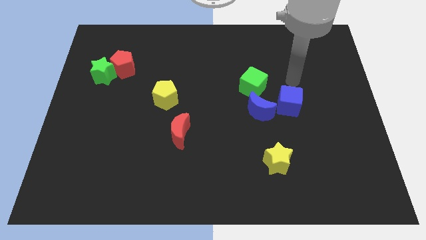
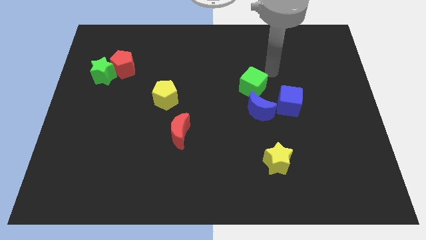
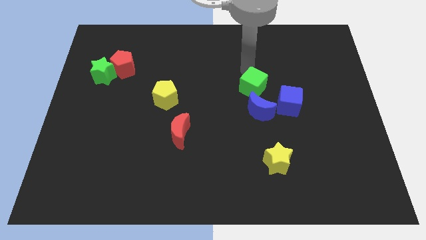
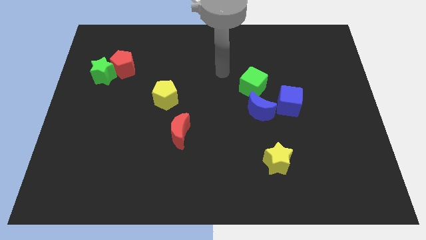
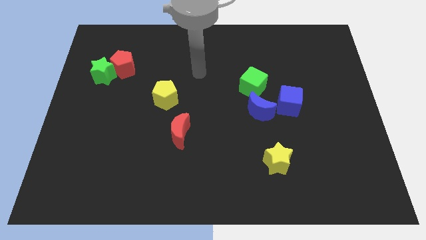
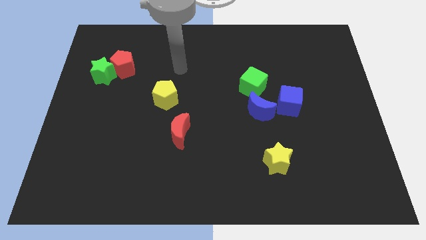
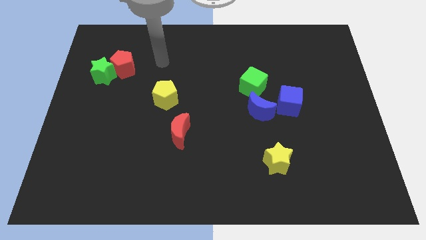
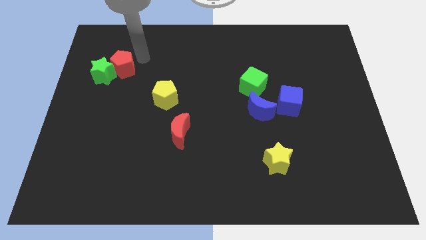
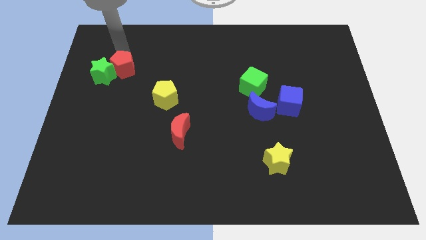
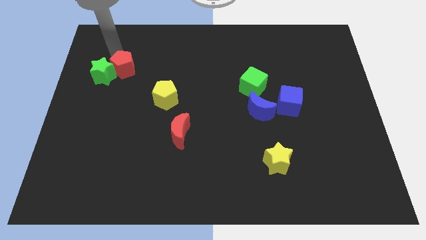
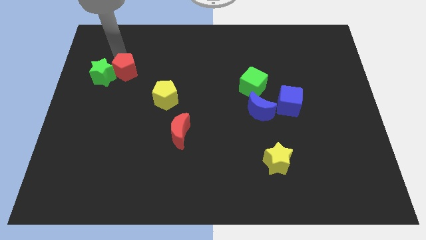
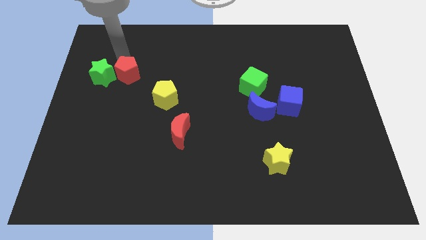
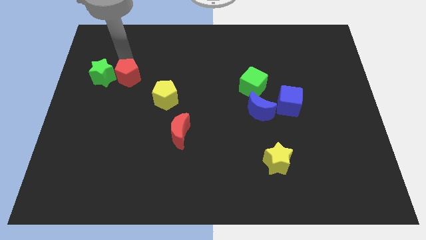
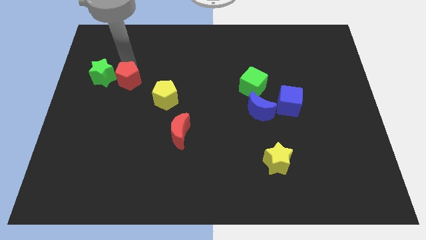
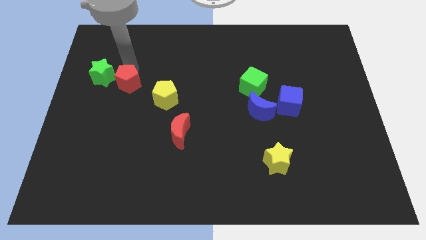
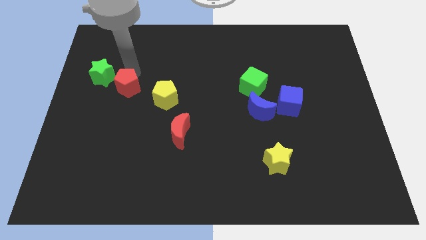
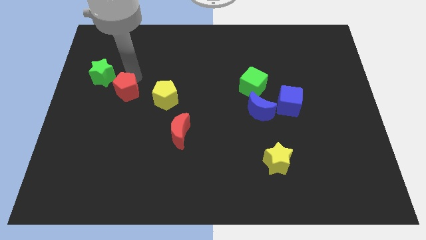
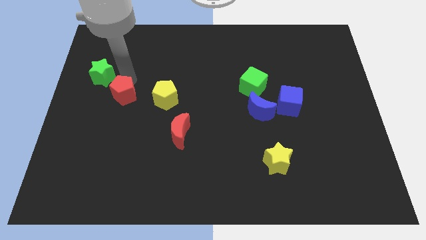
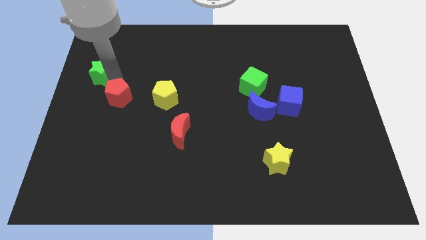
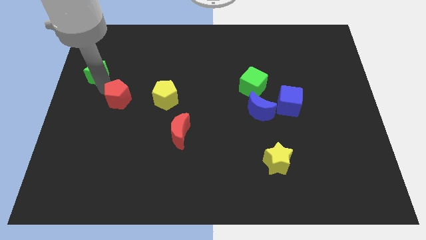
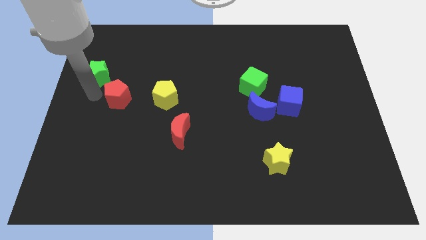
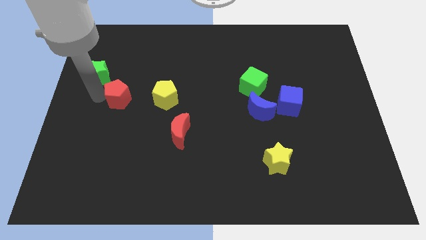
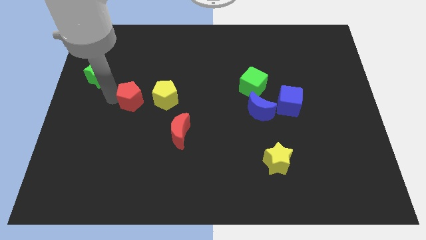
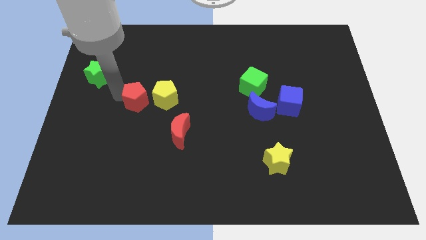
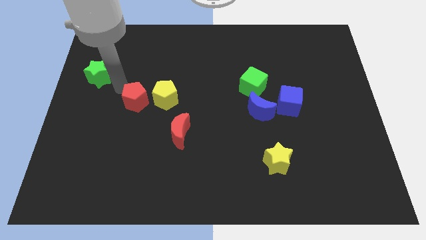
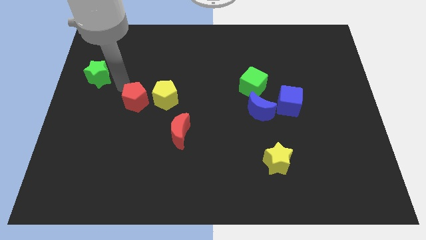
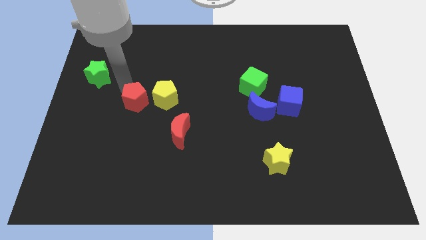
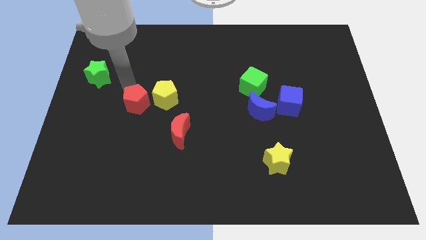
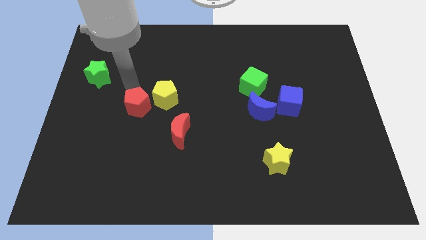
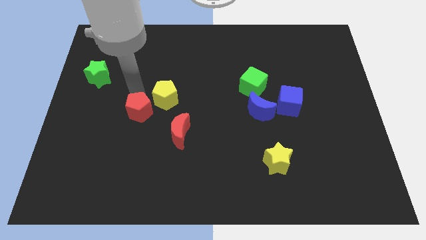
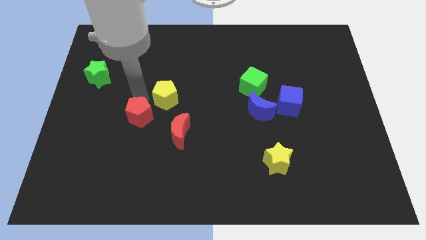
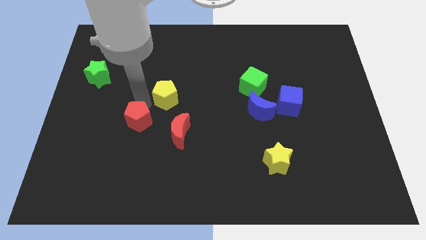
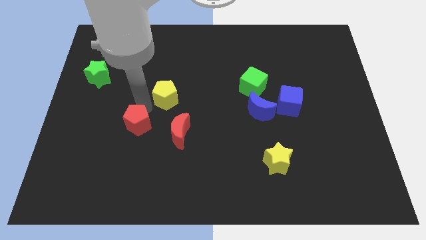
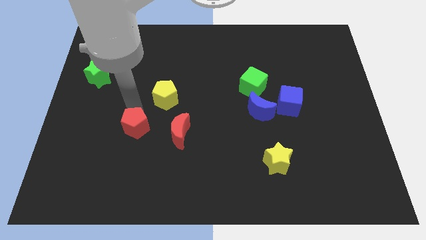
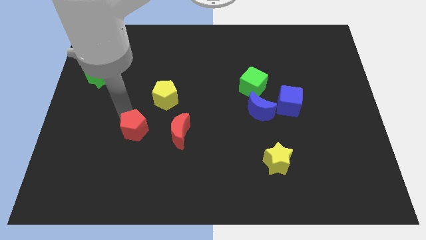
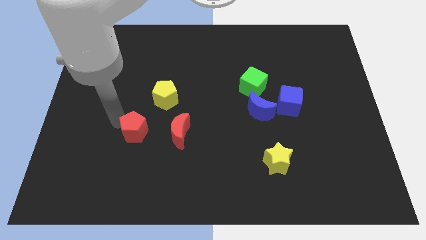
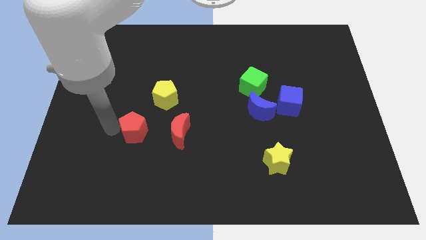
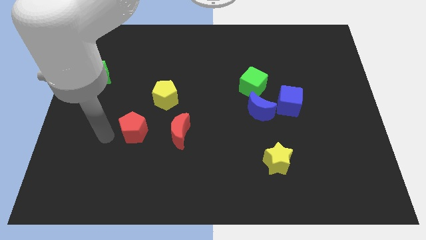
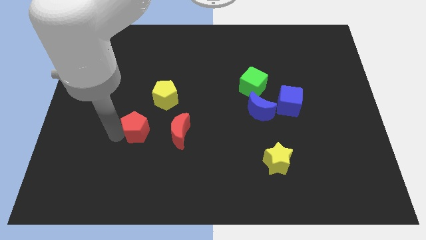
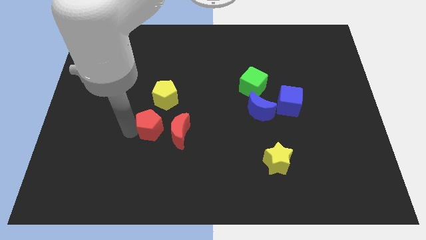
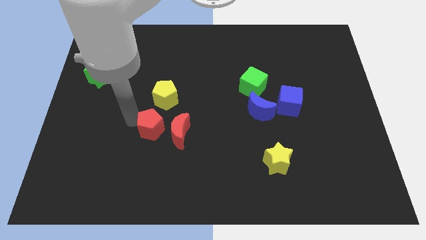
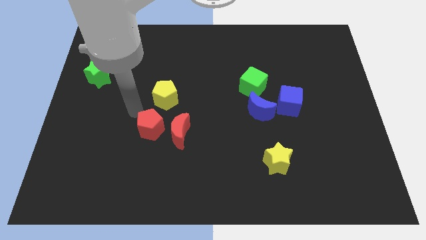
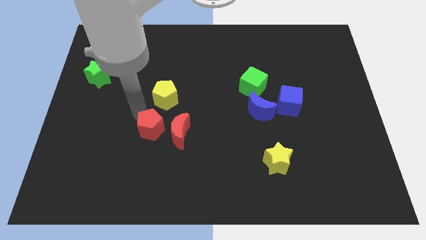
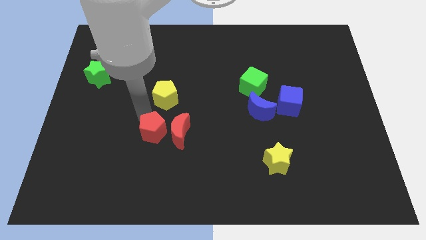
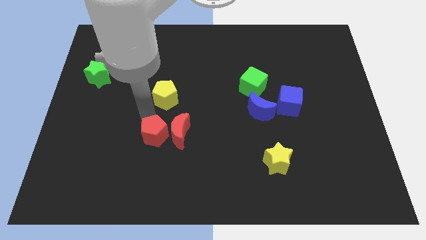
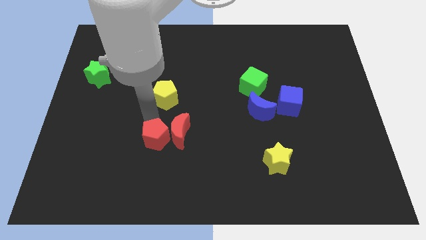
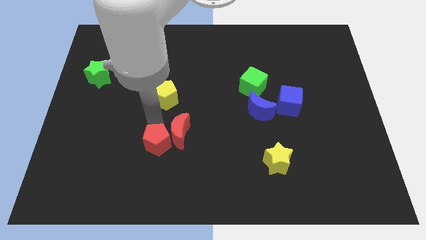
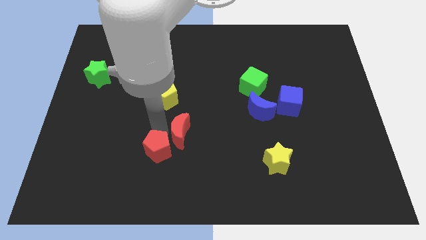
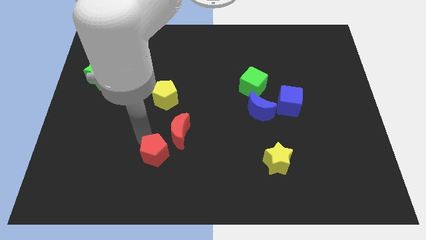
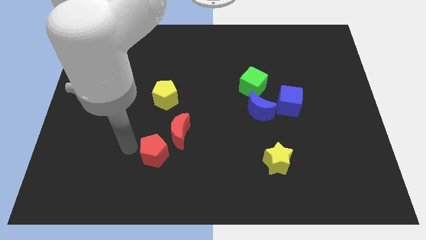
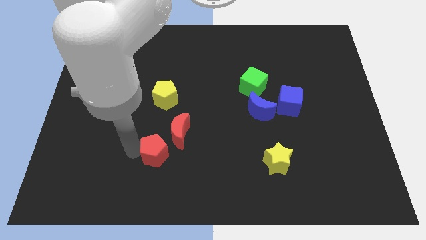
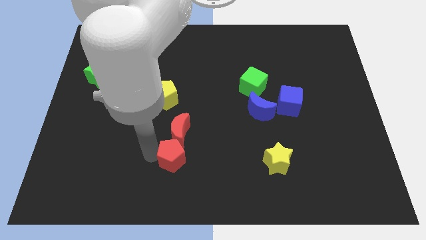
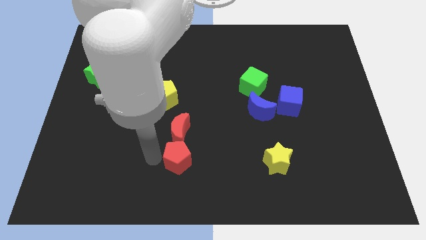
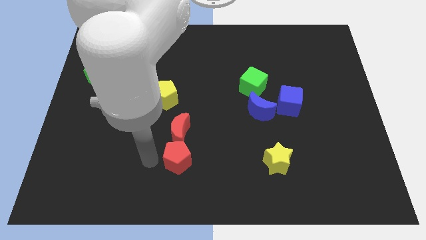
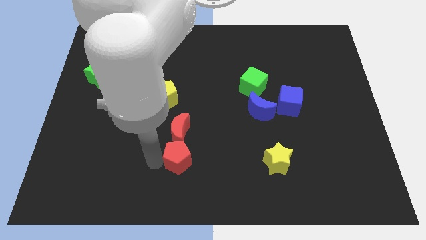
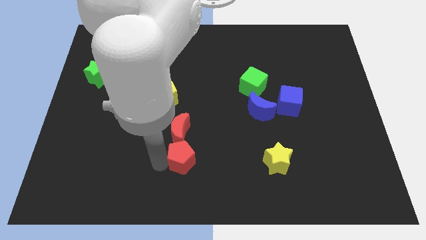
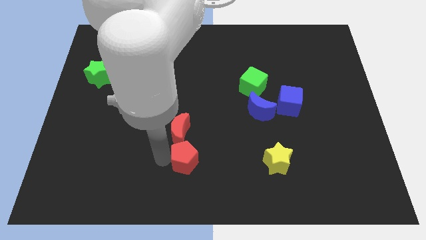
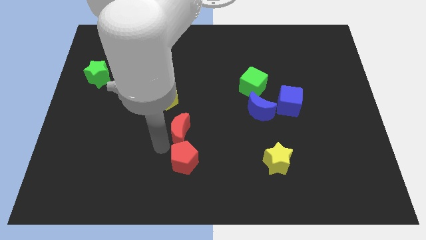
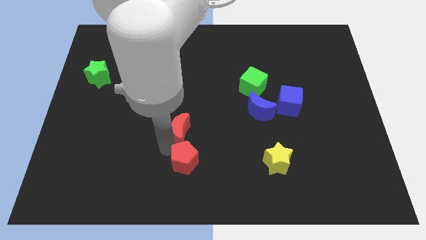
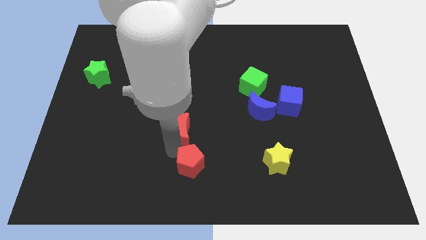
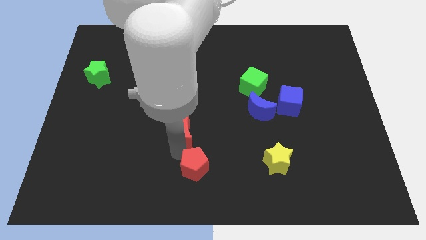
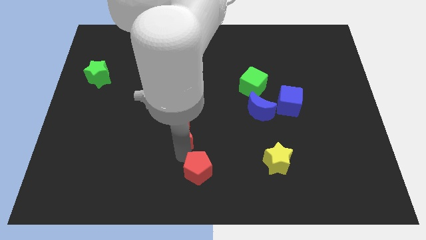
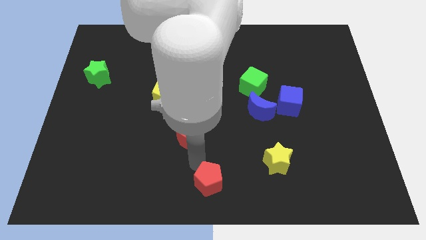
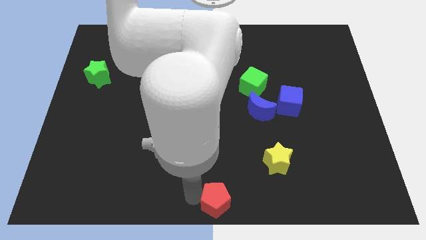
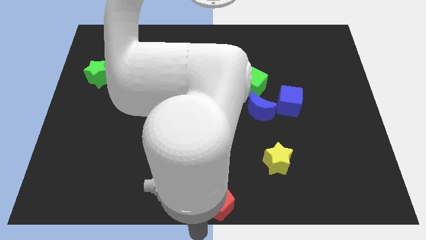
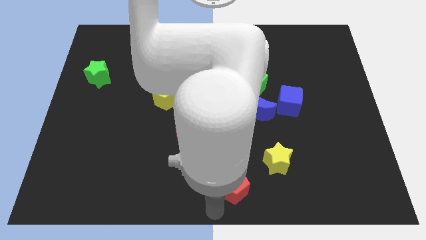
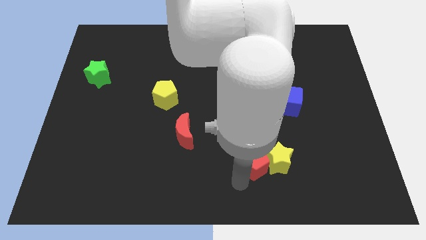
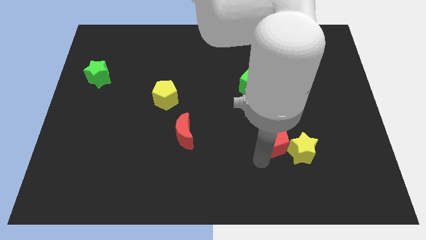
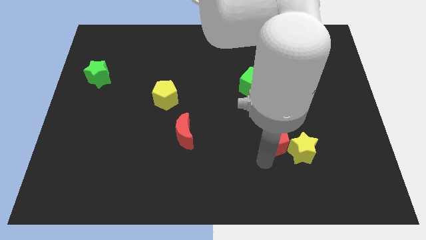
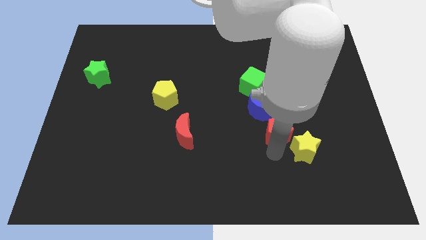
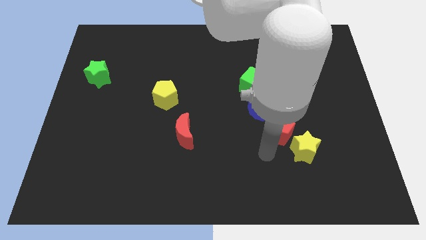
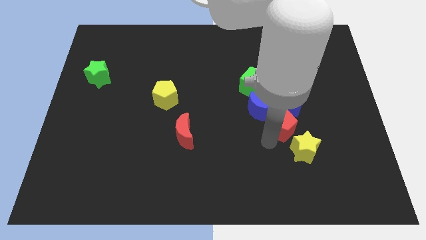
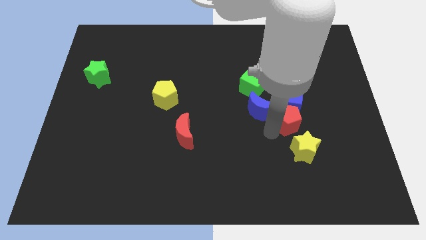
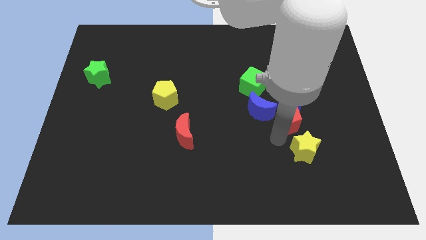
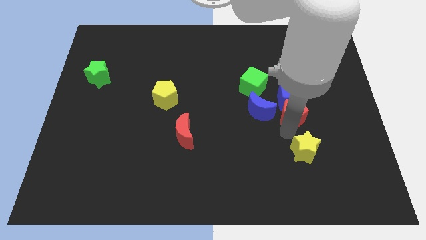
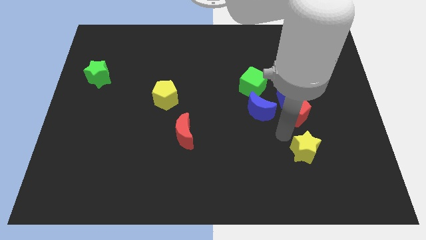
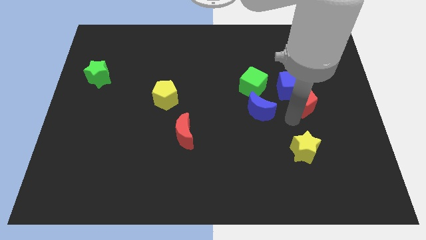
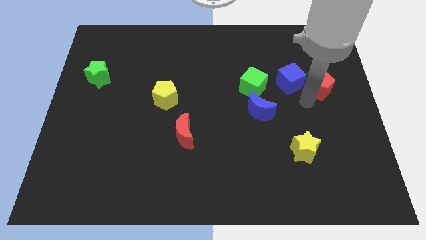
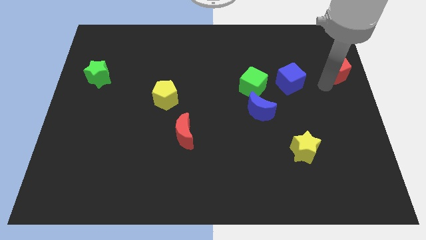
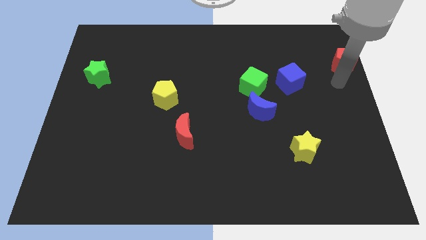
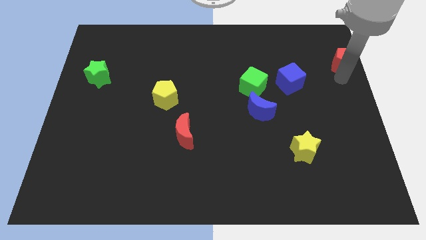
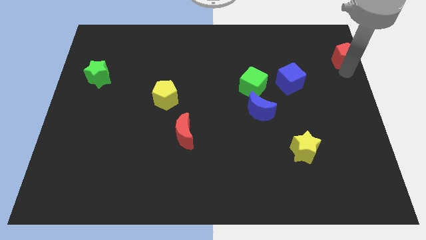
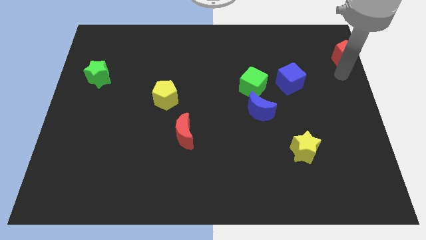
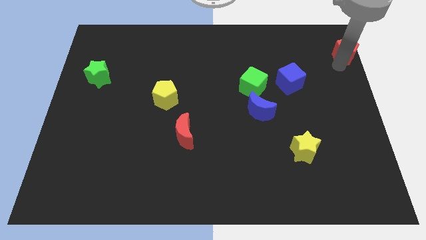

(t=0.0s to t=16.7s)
push the red pentagon to the top right

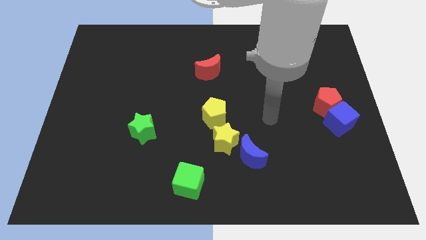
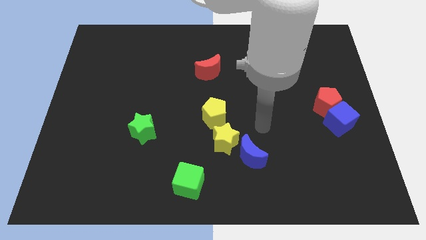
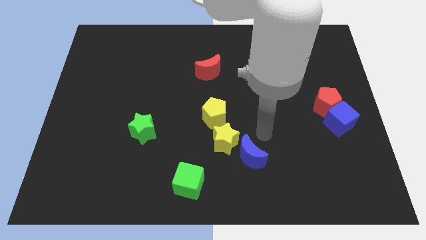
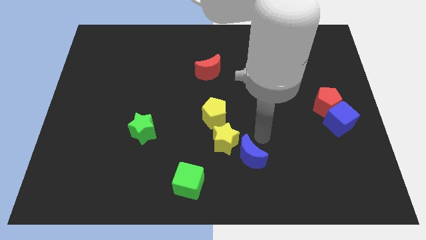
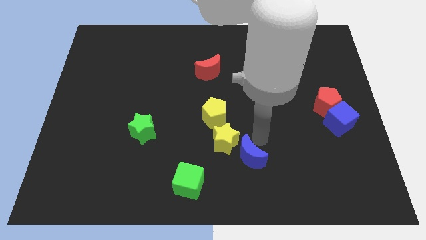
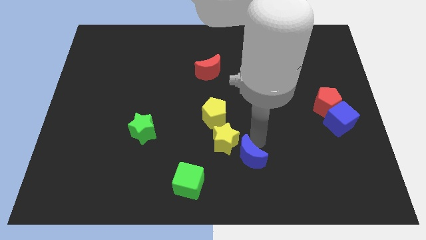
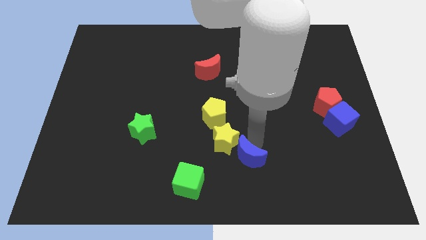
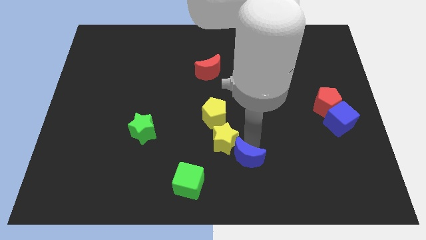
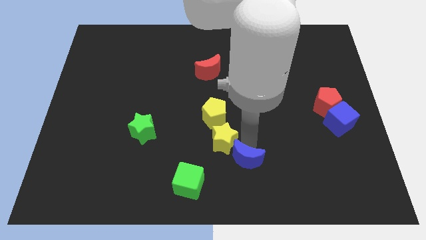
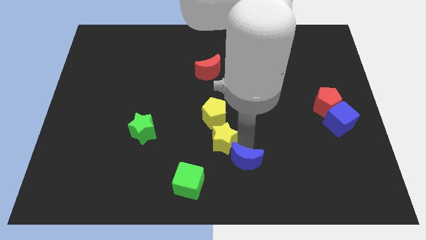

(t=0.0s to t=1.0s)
put the blue moon to the bottom
